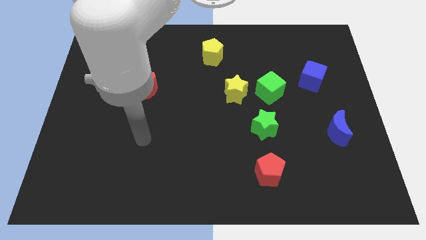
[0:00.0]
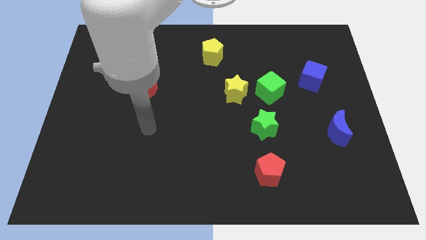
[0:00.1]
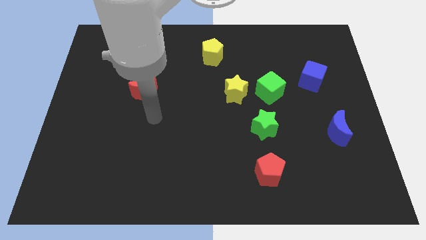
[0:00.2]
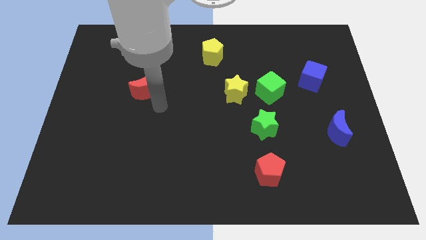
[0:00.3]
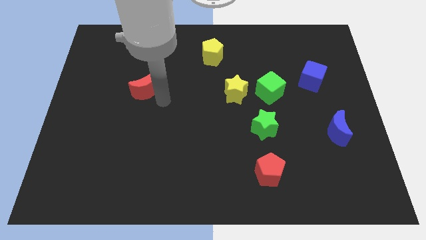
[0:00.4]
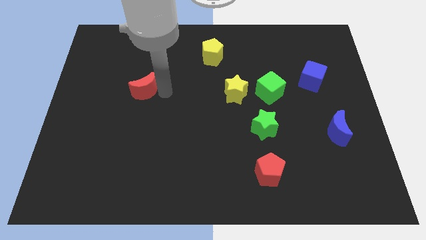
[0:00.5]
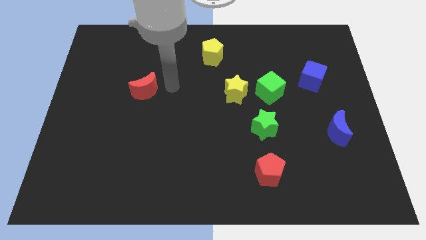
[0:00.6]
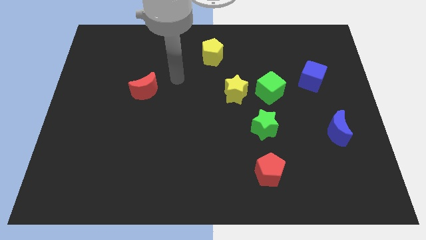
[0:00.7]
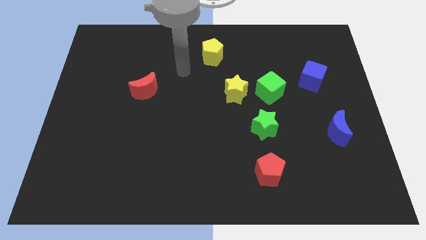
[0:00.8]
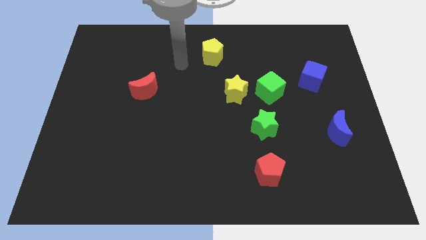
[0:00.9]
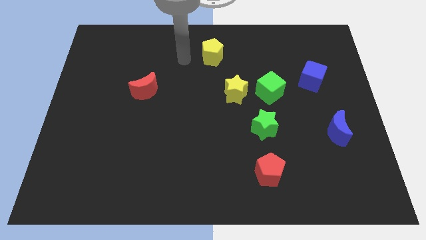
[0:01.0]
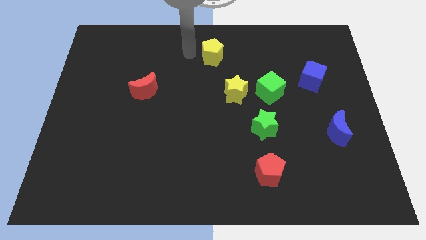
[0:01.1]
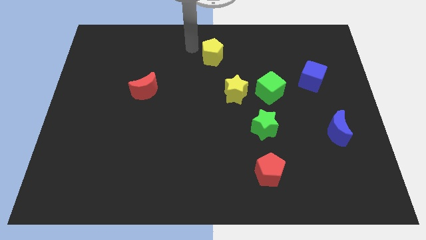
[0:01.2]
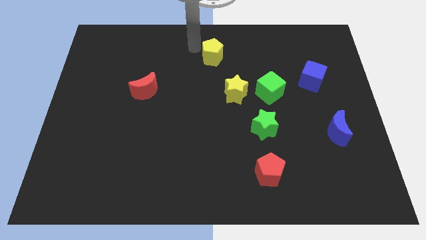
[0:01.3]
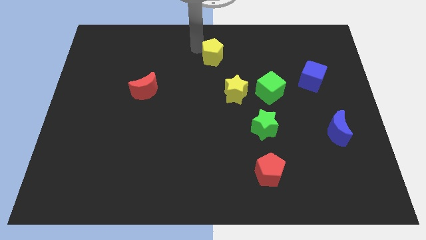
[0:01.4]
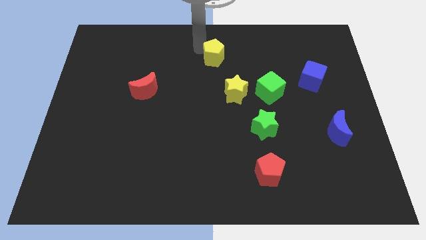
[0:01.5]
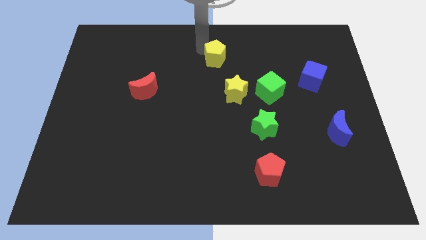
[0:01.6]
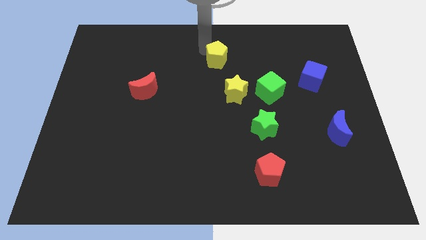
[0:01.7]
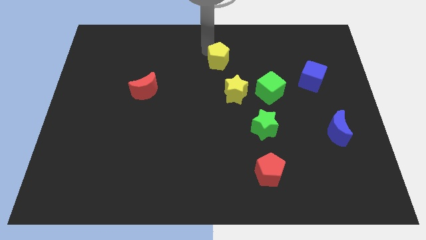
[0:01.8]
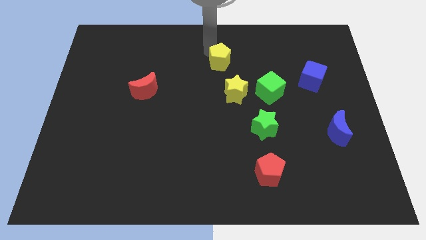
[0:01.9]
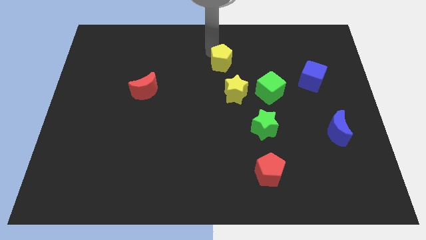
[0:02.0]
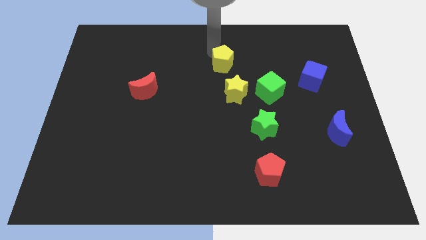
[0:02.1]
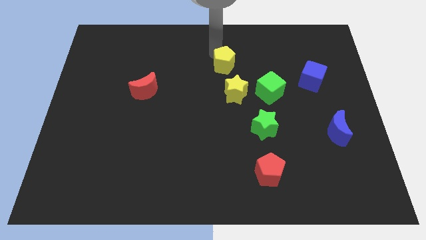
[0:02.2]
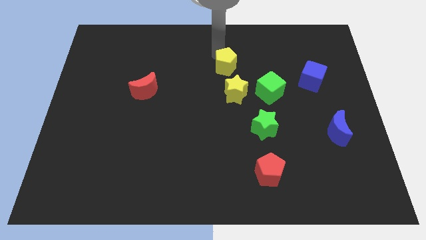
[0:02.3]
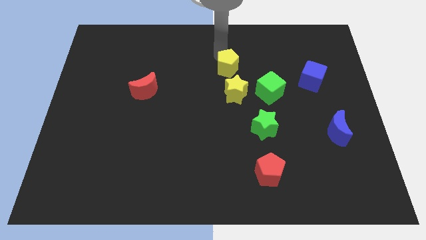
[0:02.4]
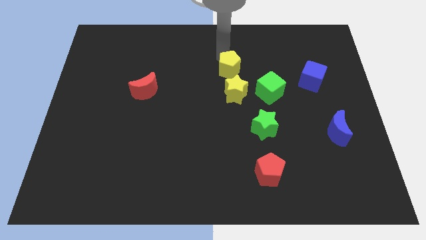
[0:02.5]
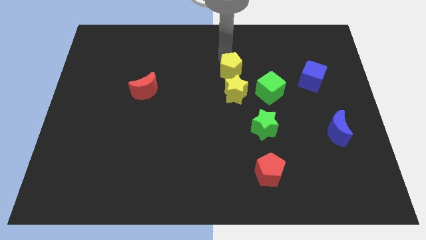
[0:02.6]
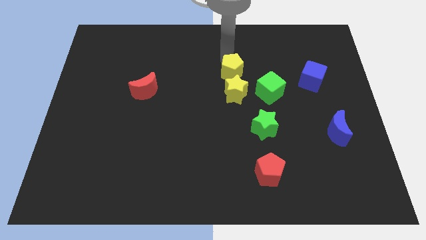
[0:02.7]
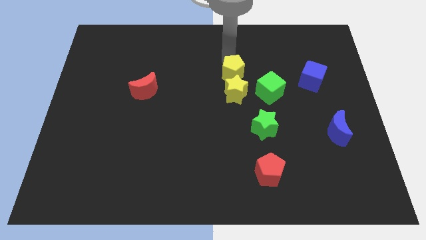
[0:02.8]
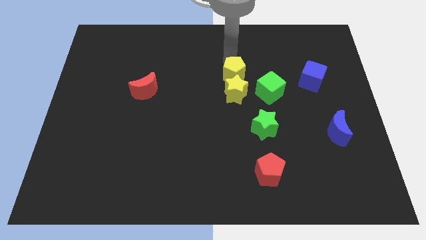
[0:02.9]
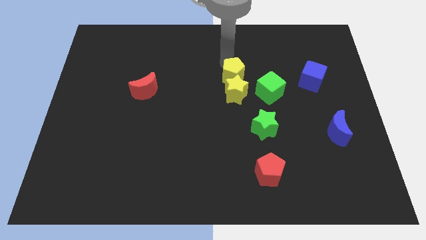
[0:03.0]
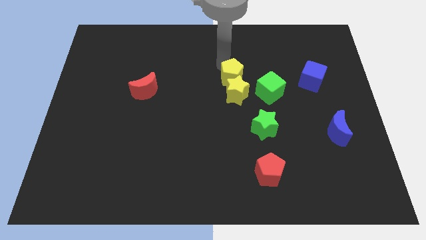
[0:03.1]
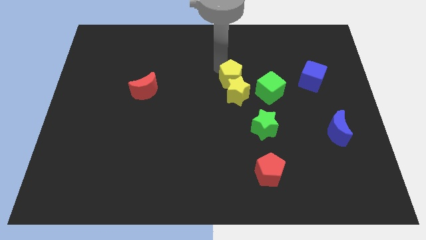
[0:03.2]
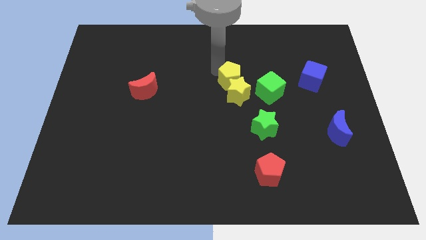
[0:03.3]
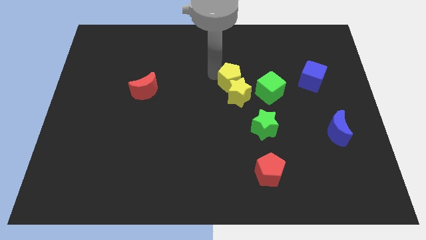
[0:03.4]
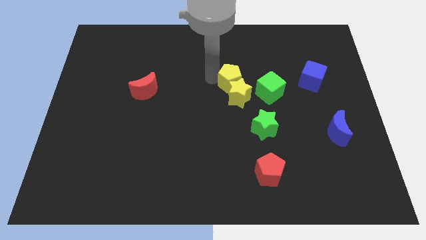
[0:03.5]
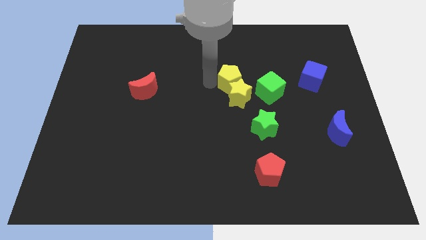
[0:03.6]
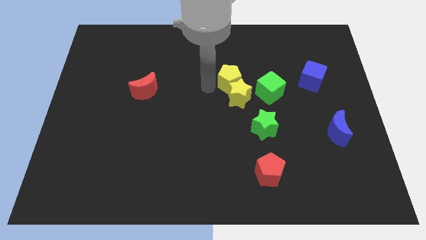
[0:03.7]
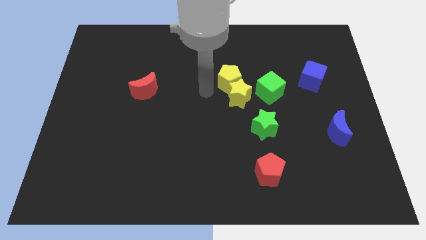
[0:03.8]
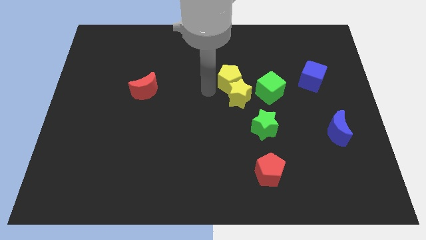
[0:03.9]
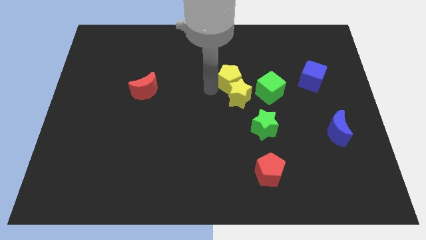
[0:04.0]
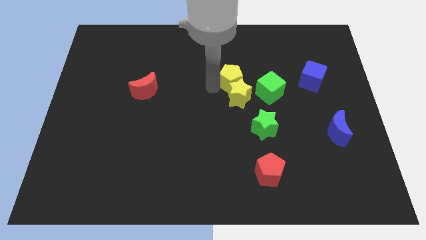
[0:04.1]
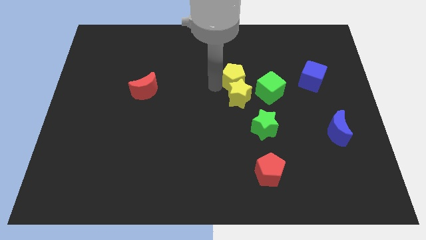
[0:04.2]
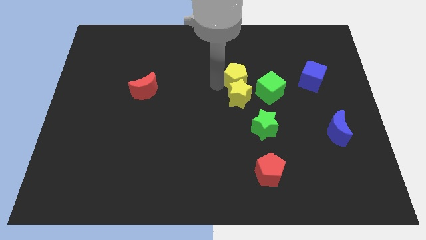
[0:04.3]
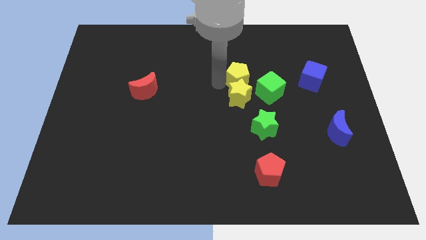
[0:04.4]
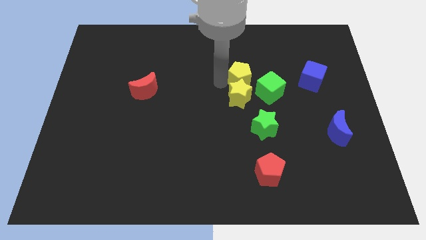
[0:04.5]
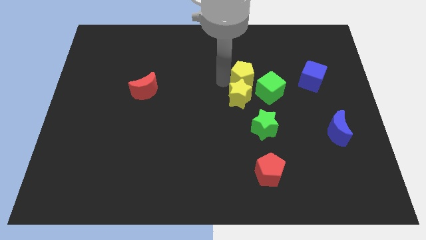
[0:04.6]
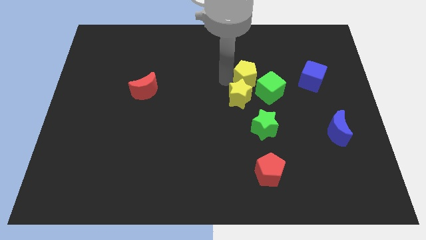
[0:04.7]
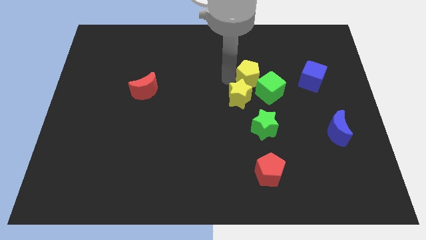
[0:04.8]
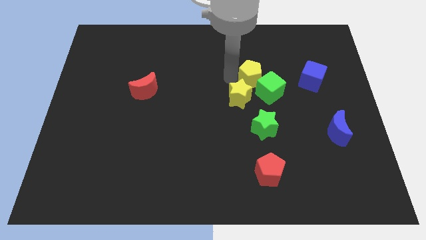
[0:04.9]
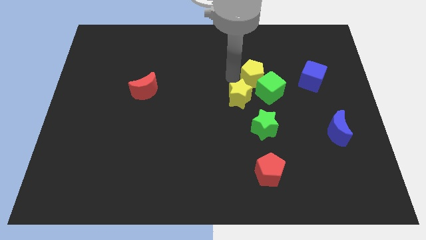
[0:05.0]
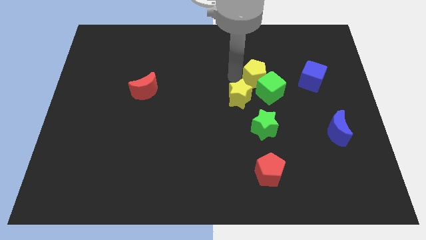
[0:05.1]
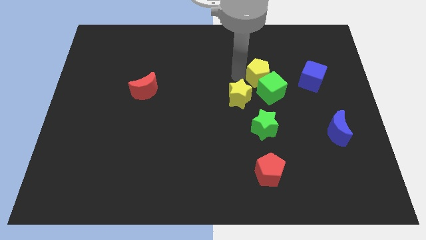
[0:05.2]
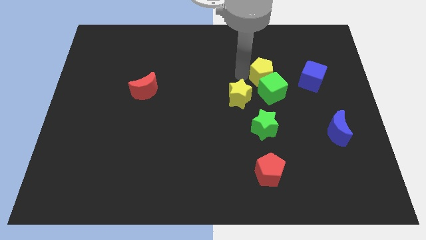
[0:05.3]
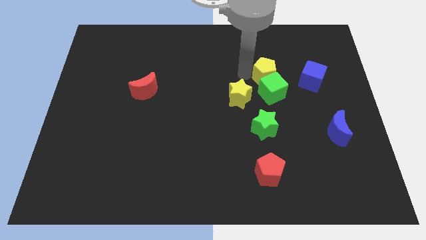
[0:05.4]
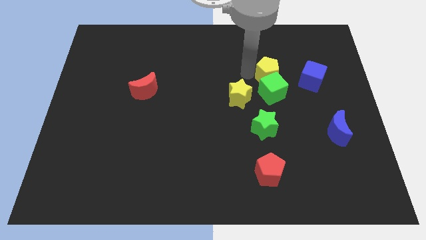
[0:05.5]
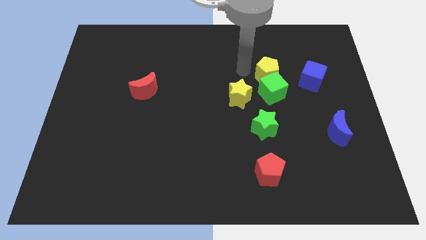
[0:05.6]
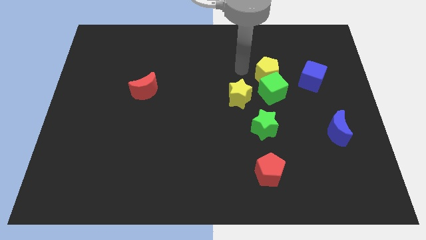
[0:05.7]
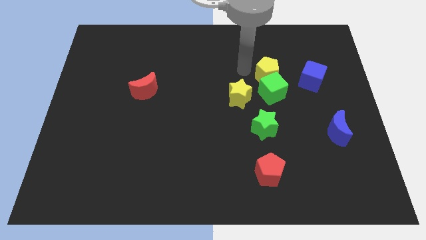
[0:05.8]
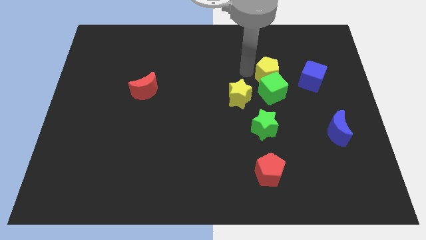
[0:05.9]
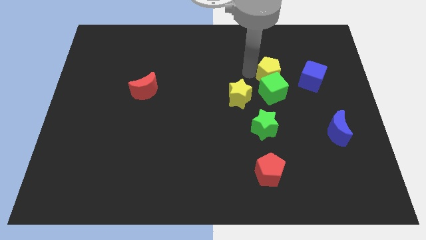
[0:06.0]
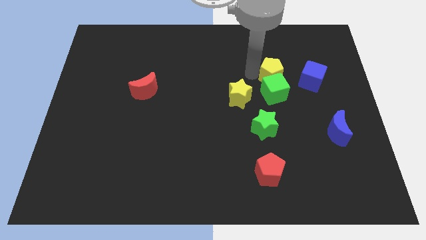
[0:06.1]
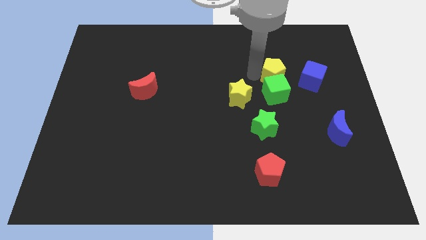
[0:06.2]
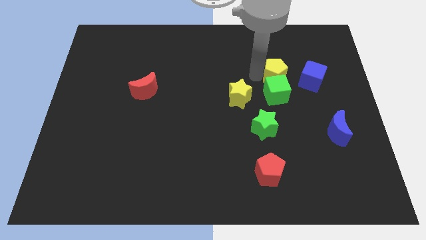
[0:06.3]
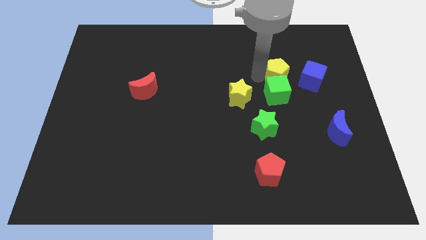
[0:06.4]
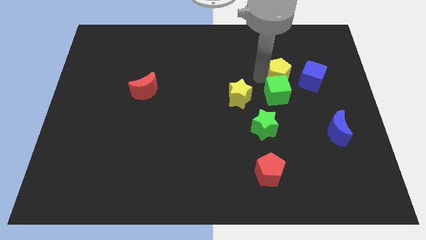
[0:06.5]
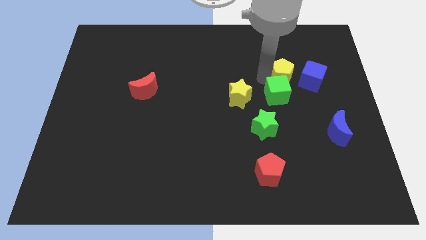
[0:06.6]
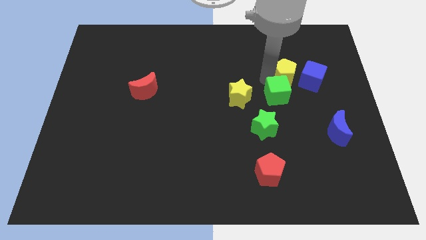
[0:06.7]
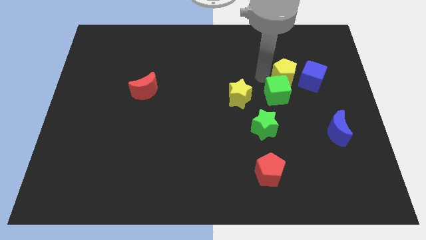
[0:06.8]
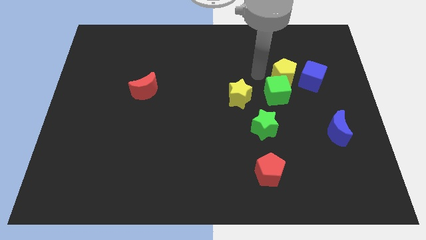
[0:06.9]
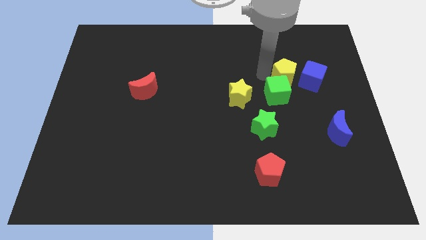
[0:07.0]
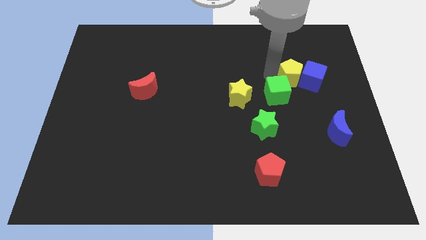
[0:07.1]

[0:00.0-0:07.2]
move the yellow pentagon next to the blue cube
